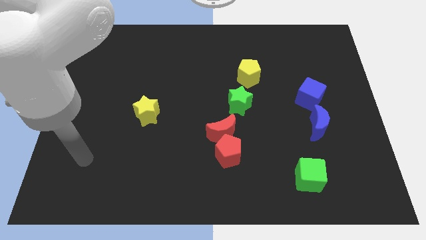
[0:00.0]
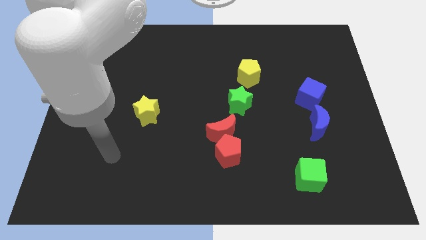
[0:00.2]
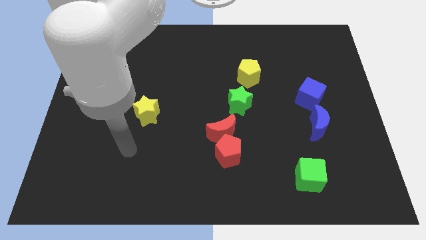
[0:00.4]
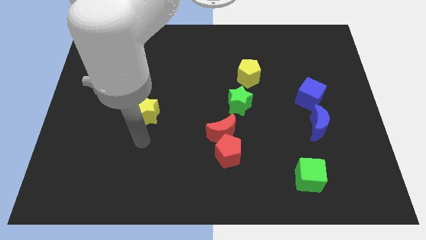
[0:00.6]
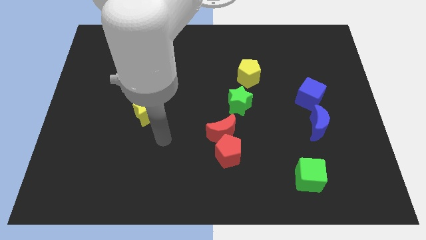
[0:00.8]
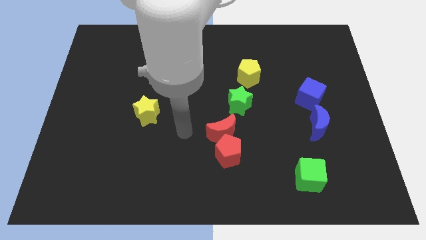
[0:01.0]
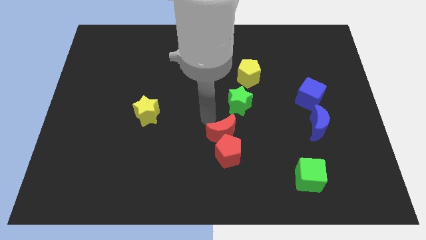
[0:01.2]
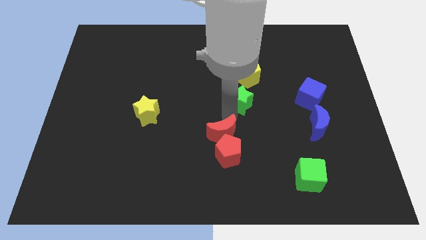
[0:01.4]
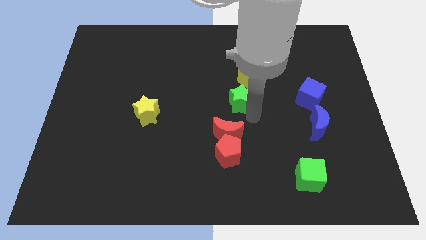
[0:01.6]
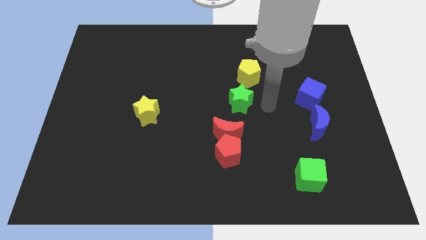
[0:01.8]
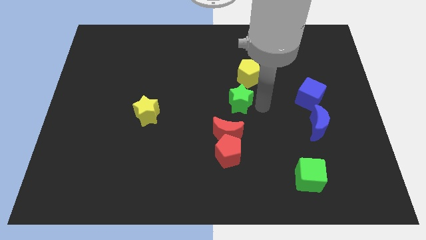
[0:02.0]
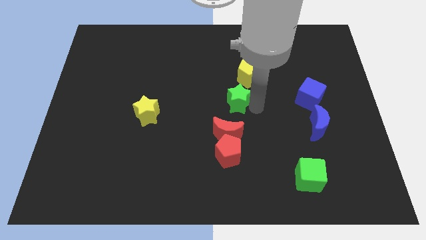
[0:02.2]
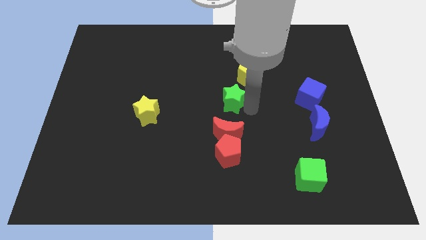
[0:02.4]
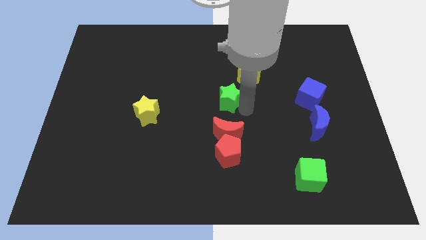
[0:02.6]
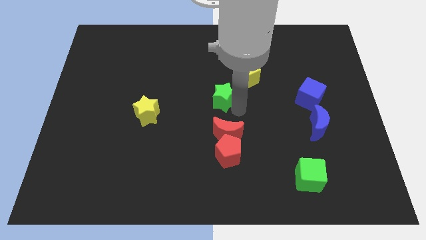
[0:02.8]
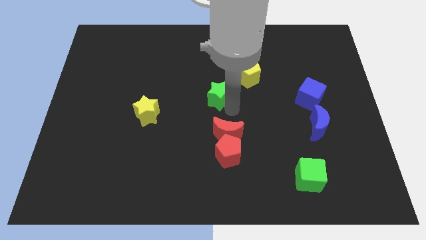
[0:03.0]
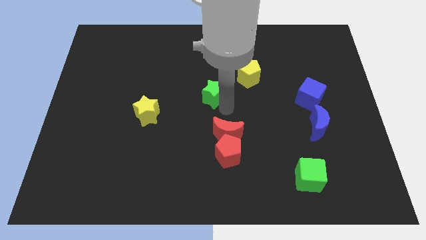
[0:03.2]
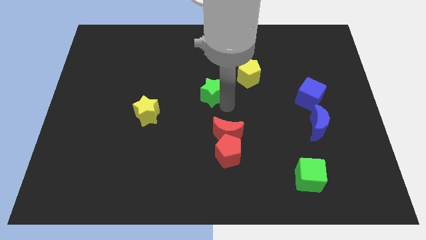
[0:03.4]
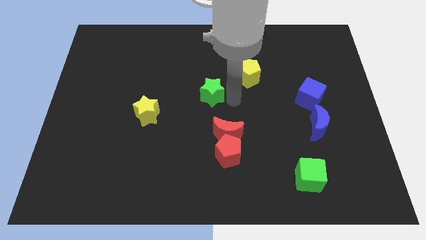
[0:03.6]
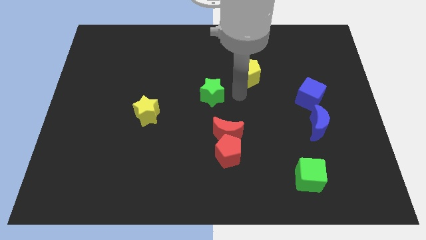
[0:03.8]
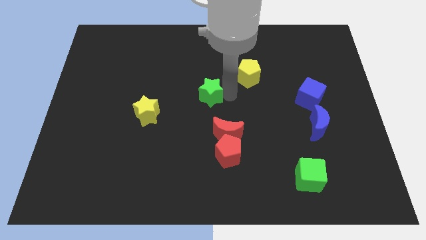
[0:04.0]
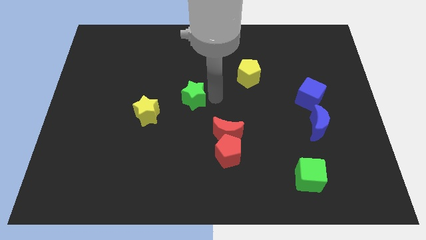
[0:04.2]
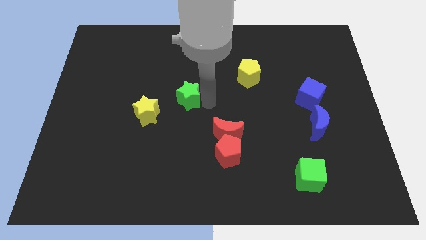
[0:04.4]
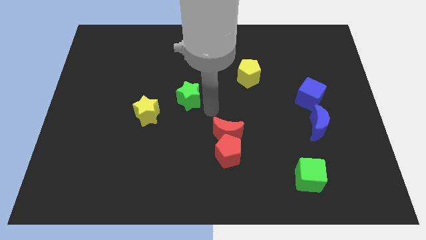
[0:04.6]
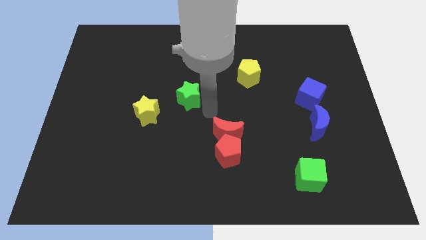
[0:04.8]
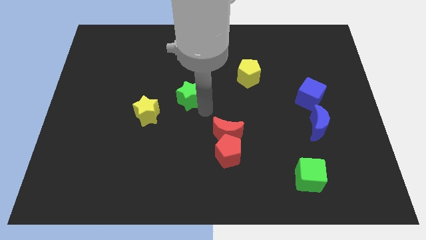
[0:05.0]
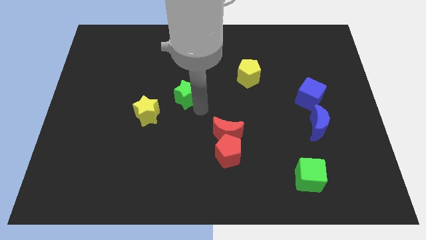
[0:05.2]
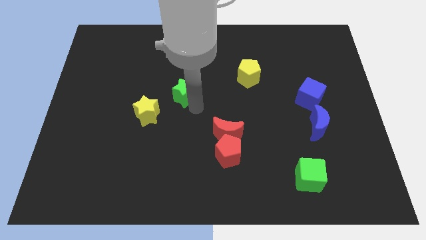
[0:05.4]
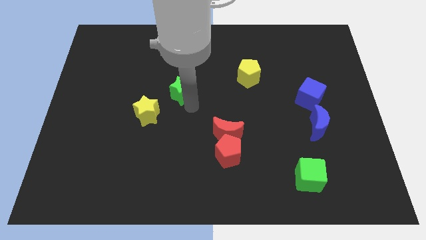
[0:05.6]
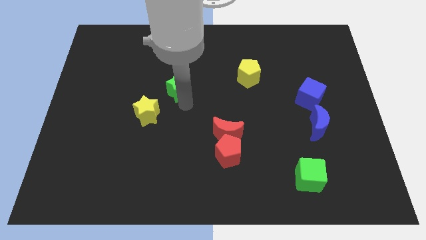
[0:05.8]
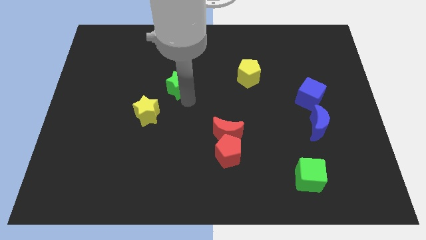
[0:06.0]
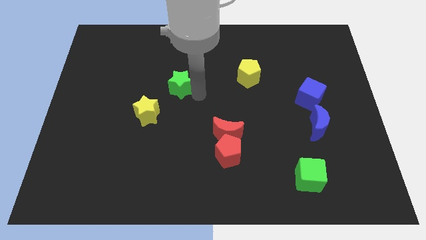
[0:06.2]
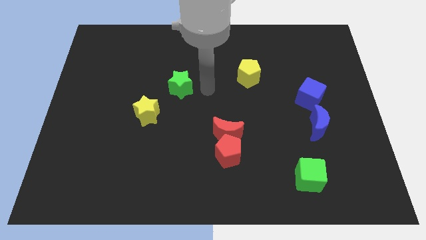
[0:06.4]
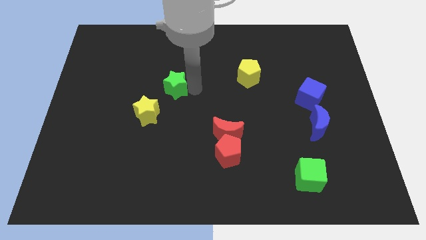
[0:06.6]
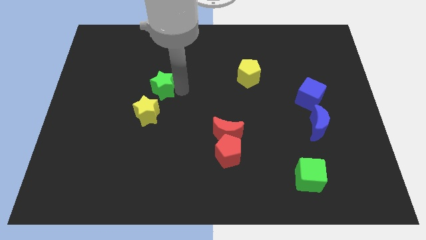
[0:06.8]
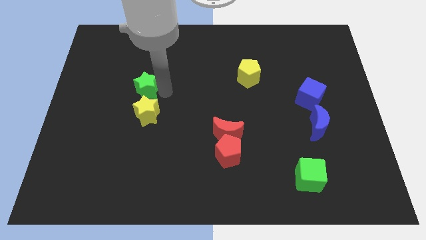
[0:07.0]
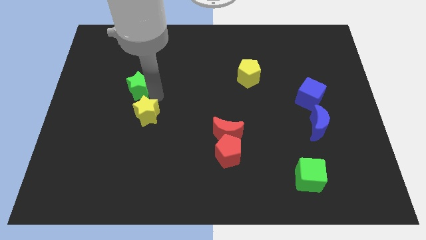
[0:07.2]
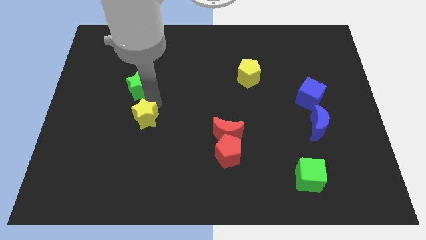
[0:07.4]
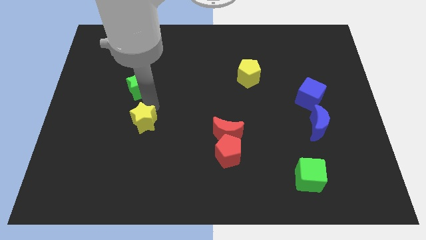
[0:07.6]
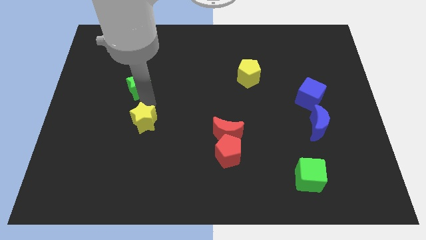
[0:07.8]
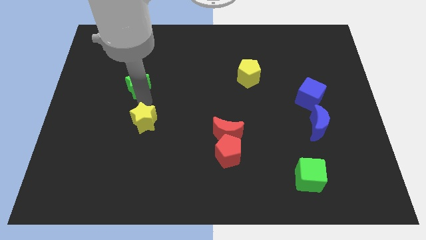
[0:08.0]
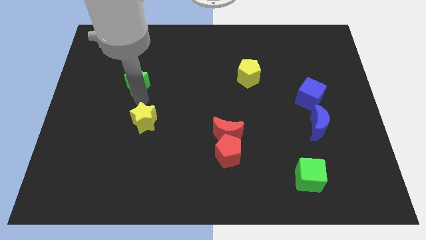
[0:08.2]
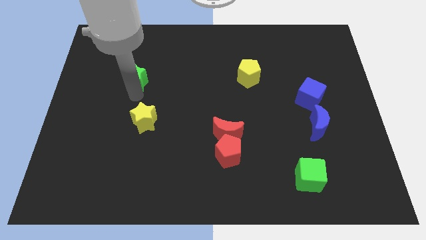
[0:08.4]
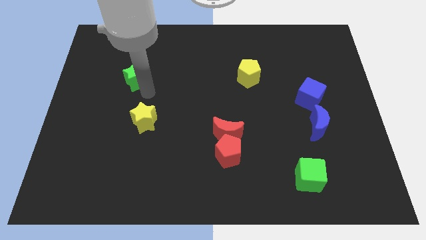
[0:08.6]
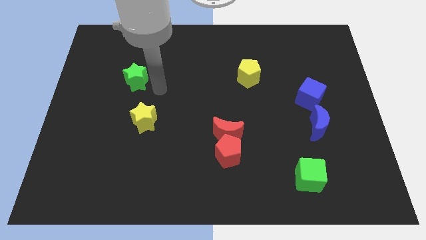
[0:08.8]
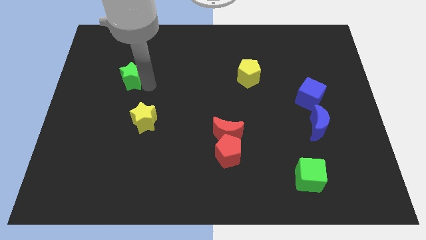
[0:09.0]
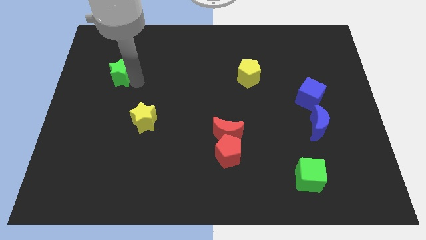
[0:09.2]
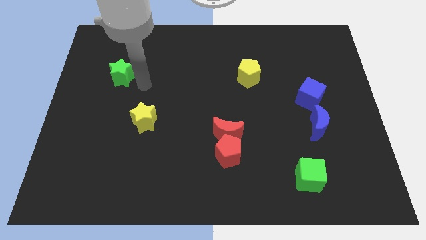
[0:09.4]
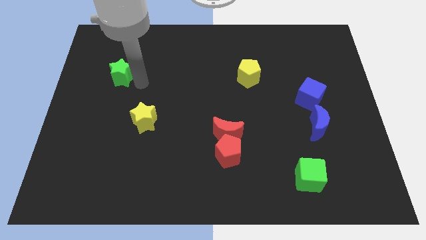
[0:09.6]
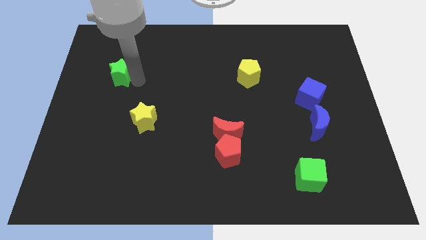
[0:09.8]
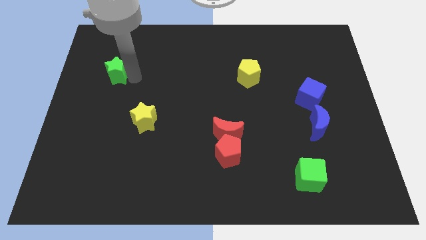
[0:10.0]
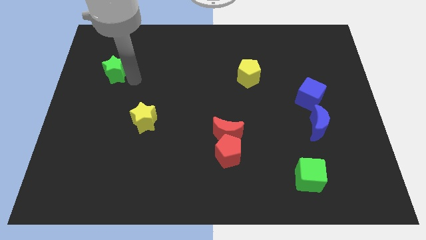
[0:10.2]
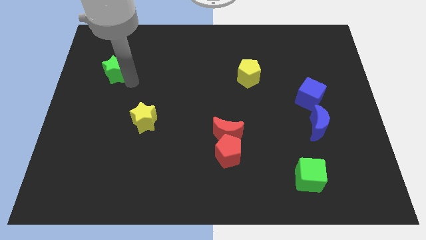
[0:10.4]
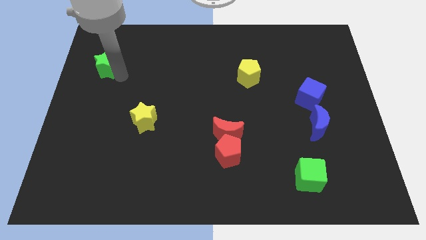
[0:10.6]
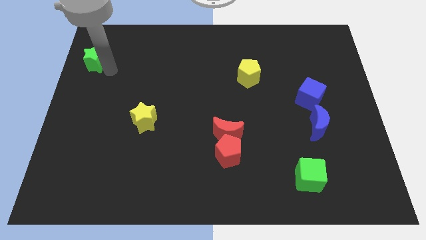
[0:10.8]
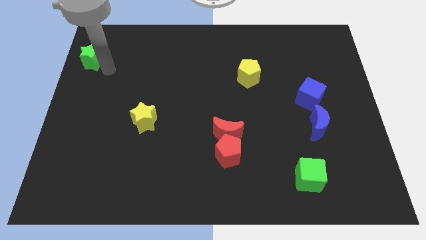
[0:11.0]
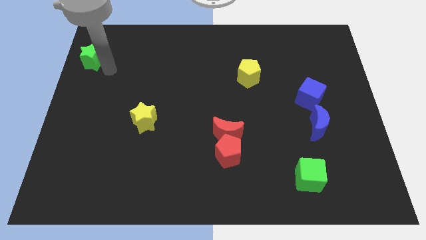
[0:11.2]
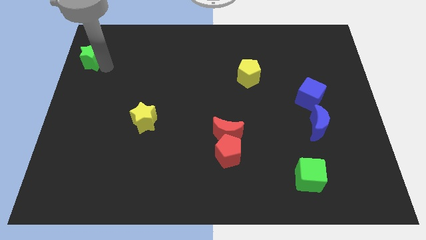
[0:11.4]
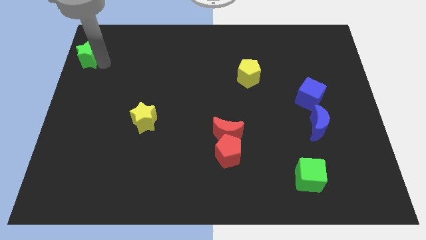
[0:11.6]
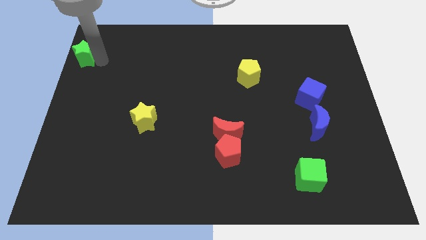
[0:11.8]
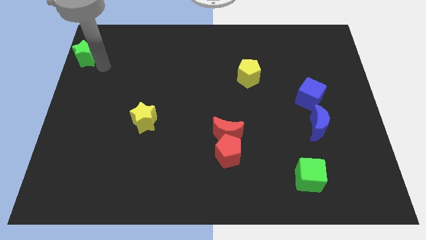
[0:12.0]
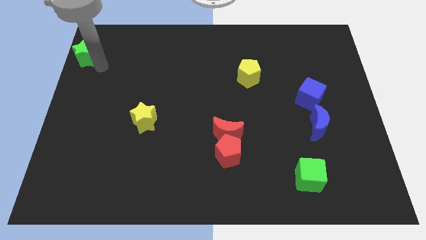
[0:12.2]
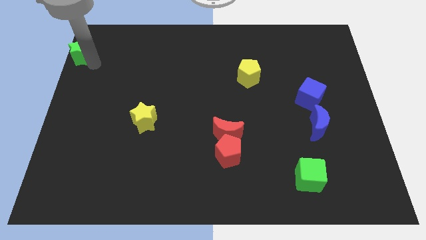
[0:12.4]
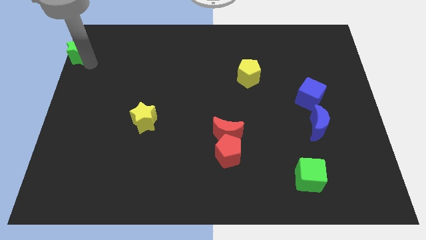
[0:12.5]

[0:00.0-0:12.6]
slide the green star to the top left of the board

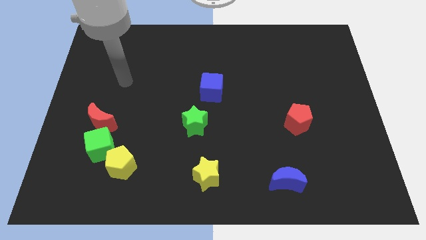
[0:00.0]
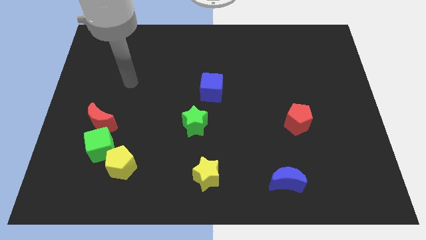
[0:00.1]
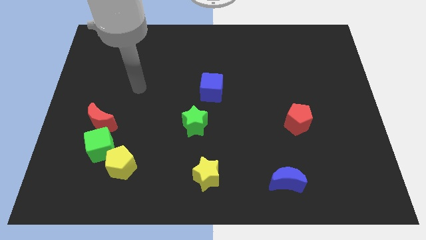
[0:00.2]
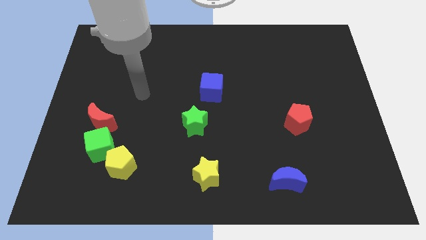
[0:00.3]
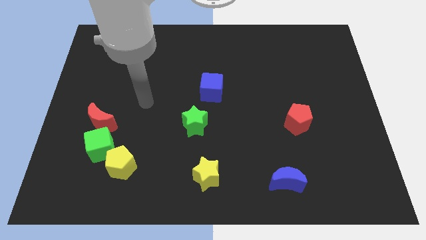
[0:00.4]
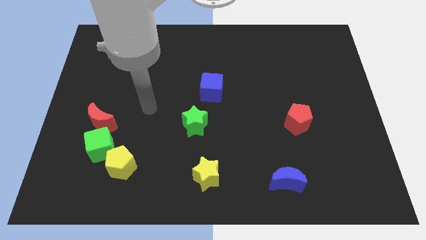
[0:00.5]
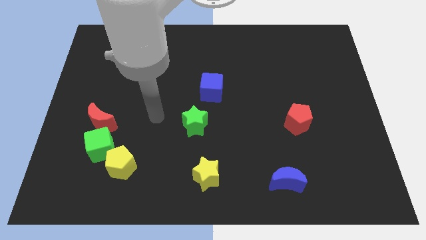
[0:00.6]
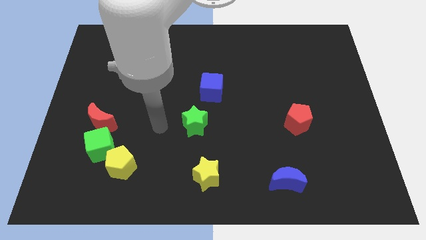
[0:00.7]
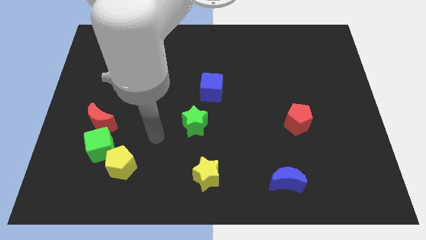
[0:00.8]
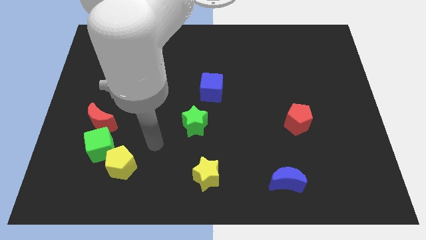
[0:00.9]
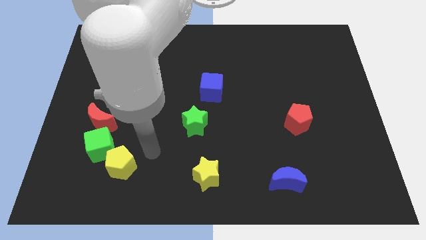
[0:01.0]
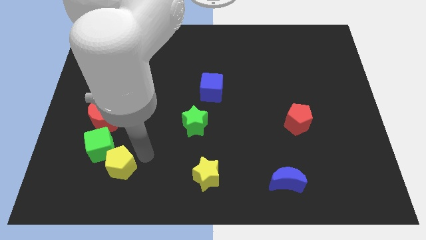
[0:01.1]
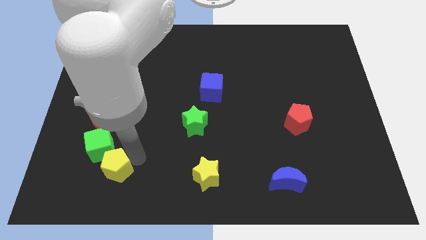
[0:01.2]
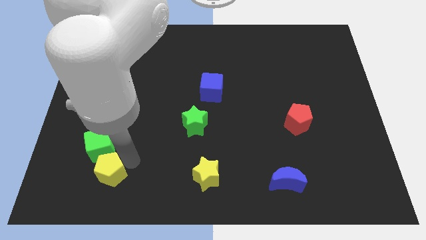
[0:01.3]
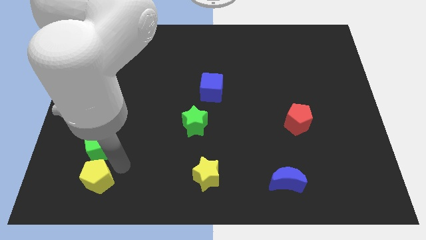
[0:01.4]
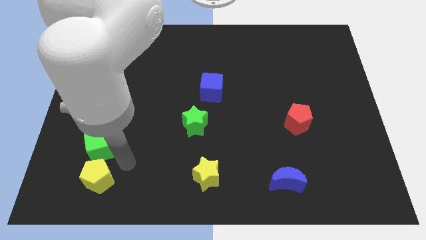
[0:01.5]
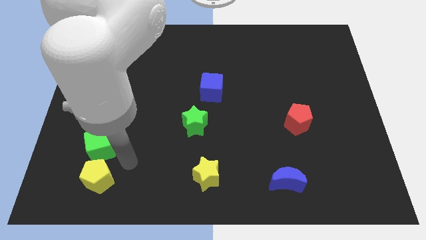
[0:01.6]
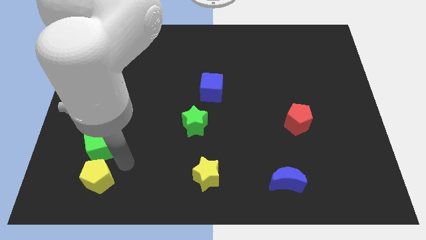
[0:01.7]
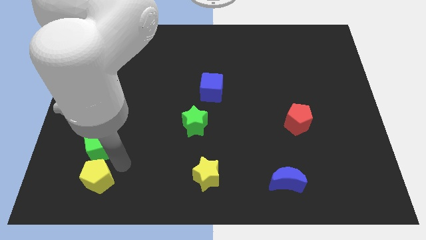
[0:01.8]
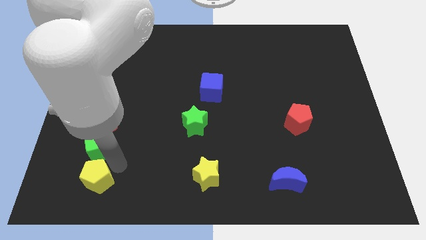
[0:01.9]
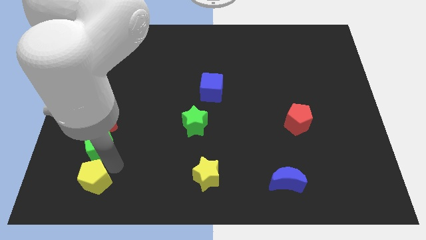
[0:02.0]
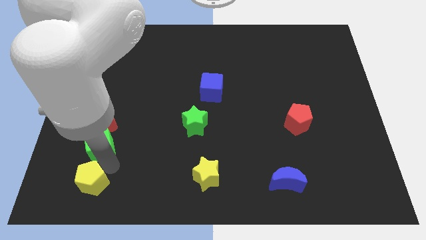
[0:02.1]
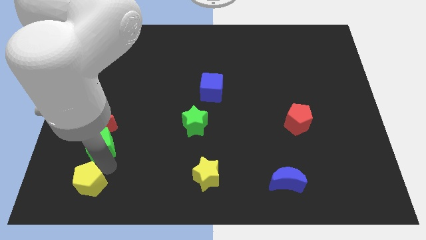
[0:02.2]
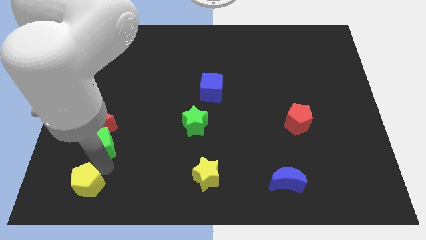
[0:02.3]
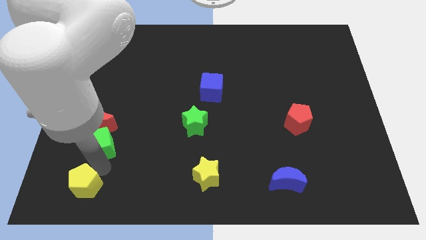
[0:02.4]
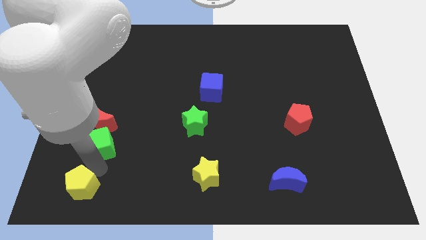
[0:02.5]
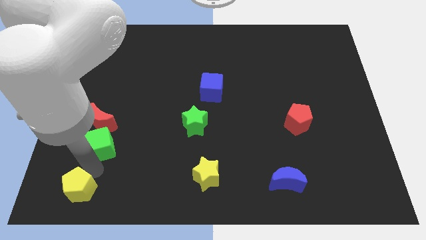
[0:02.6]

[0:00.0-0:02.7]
move the yellow pentagon to the bottom left of the board
